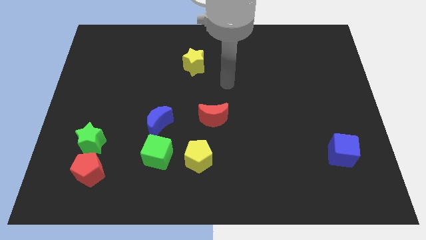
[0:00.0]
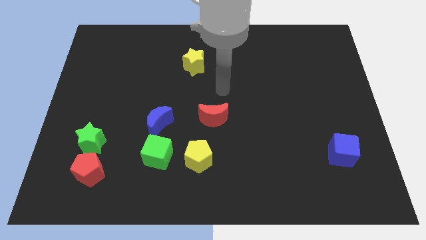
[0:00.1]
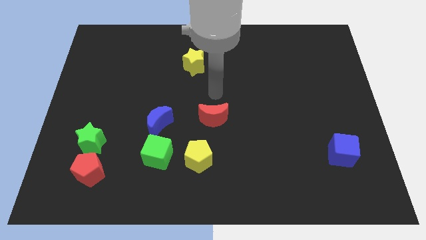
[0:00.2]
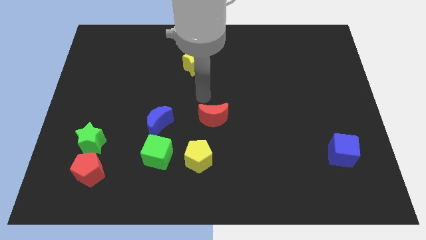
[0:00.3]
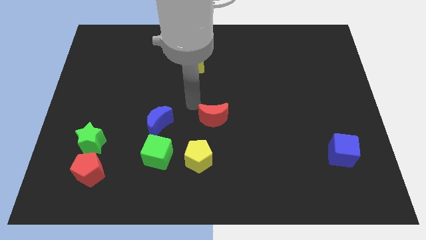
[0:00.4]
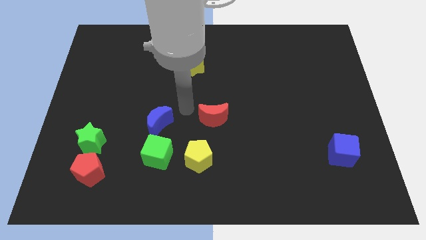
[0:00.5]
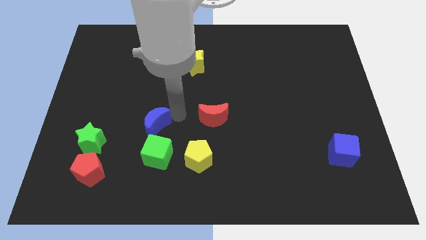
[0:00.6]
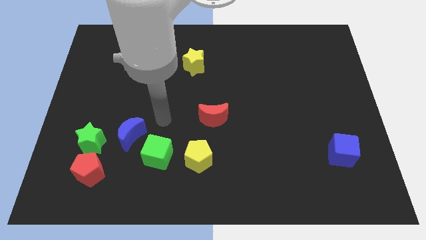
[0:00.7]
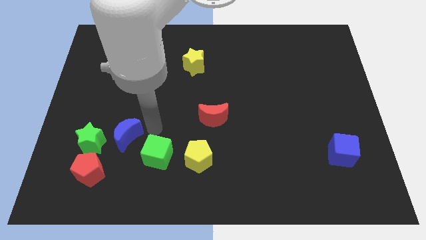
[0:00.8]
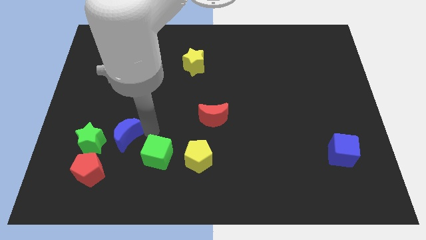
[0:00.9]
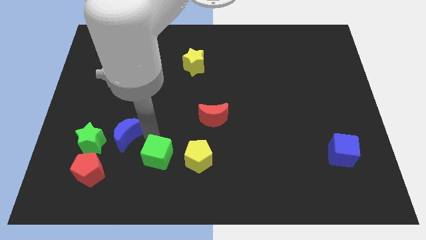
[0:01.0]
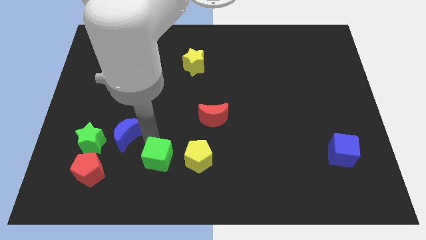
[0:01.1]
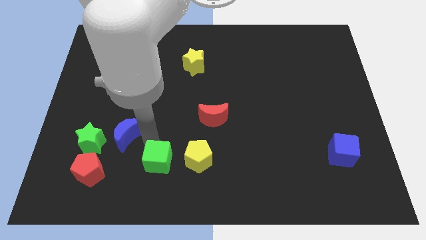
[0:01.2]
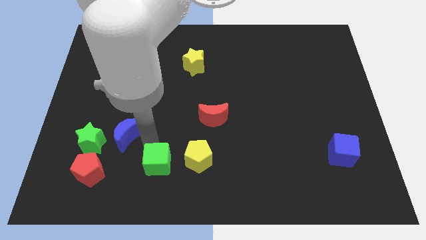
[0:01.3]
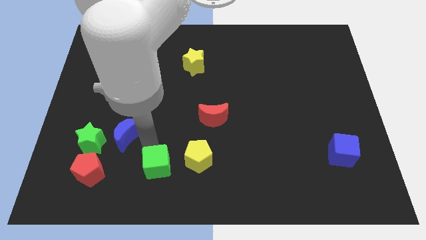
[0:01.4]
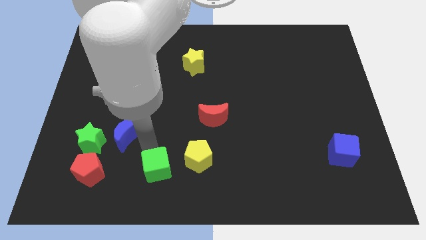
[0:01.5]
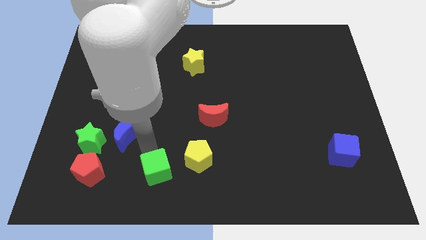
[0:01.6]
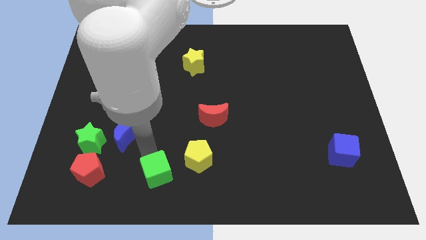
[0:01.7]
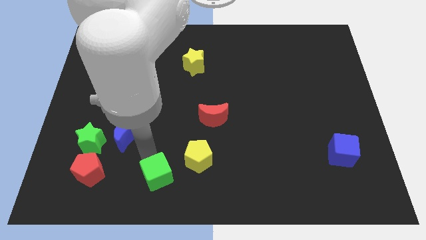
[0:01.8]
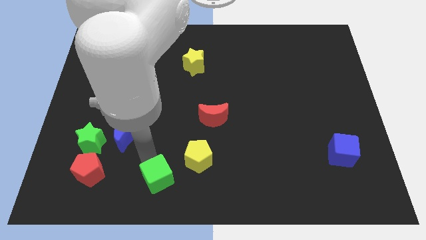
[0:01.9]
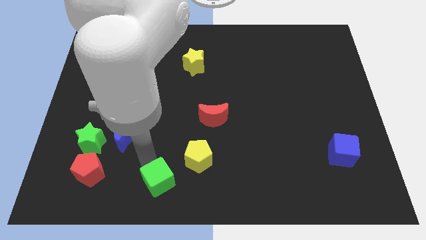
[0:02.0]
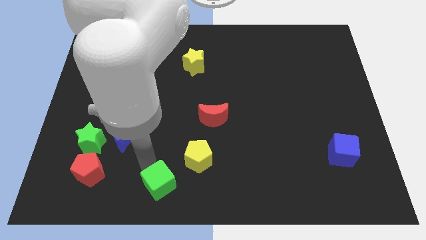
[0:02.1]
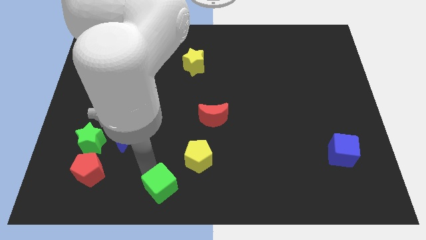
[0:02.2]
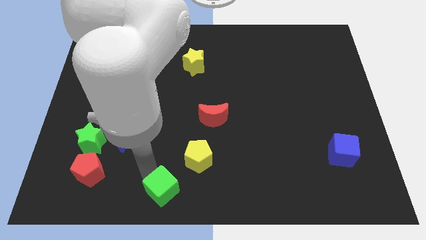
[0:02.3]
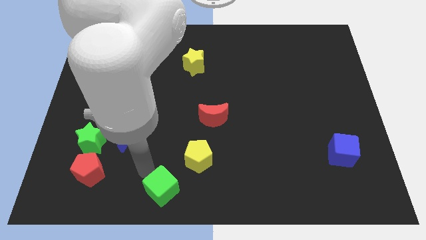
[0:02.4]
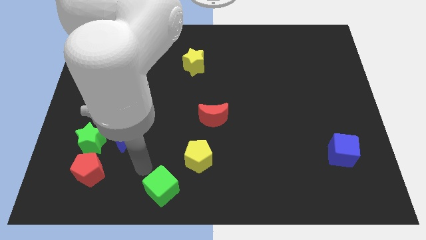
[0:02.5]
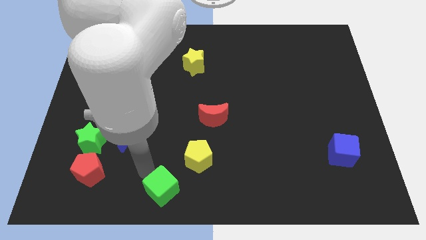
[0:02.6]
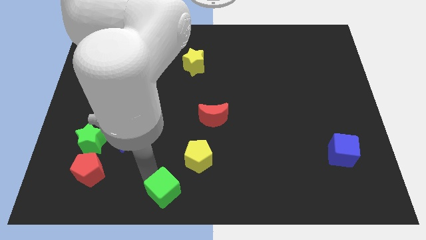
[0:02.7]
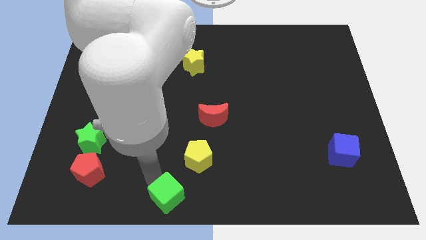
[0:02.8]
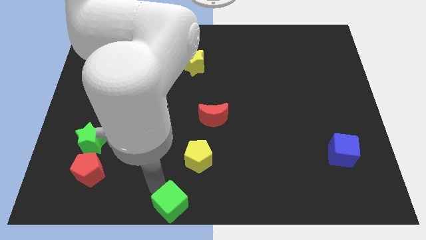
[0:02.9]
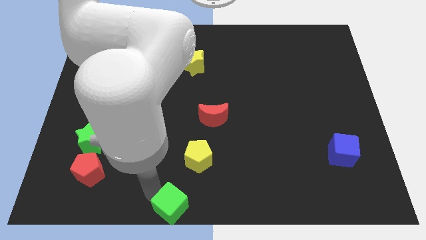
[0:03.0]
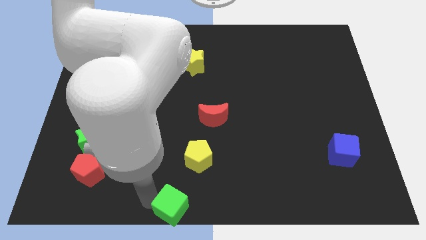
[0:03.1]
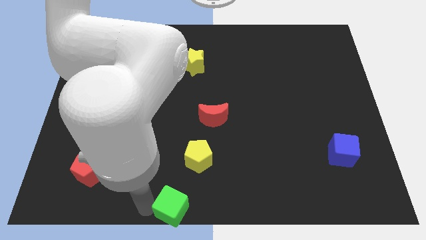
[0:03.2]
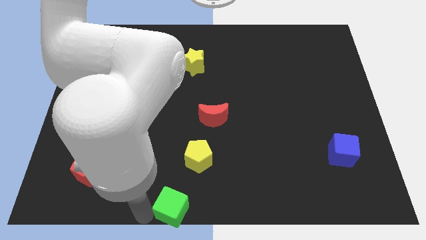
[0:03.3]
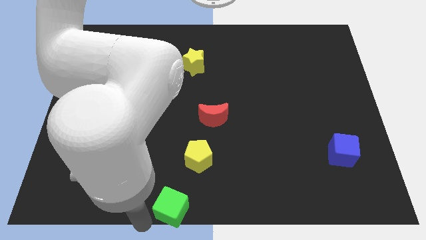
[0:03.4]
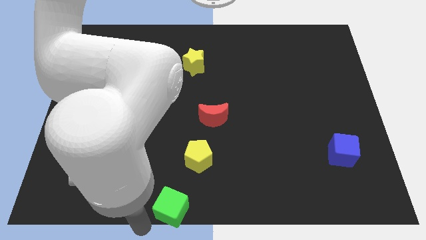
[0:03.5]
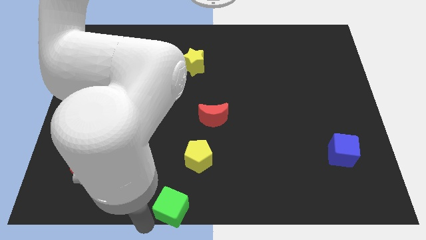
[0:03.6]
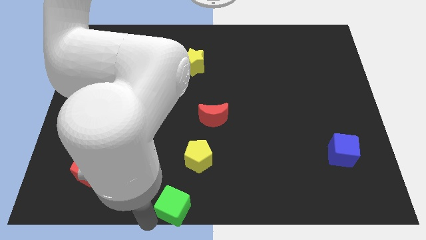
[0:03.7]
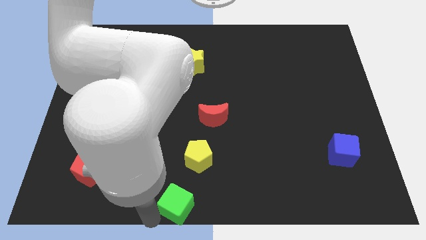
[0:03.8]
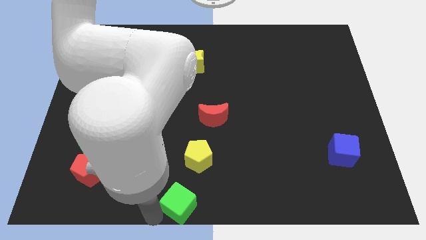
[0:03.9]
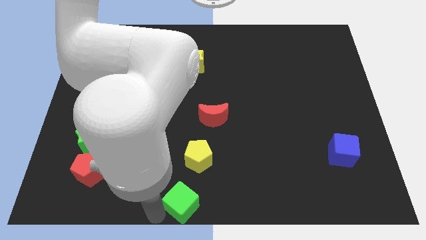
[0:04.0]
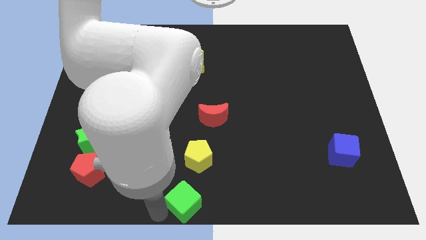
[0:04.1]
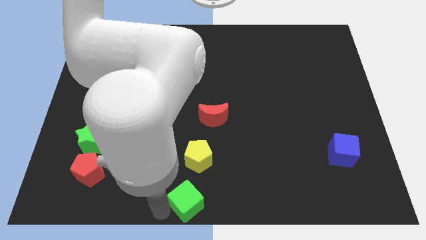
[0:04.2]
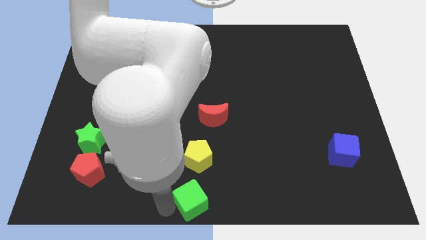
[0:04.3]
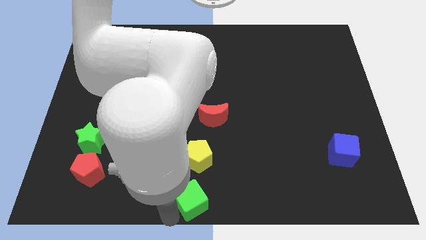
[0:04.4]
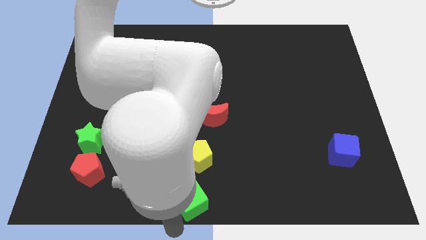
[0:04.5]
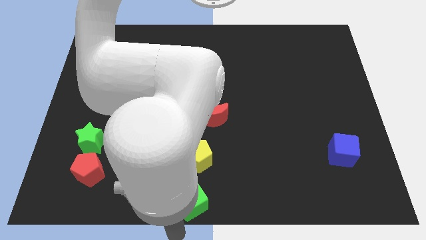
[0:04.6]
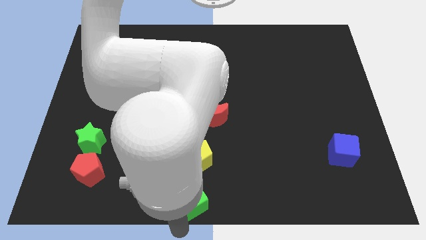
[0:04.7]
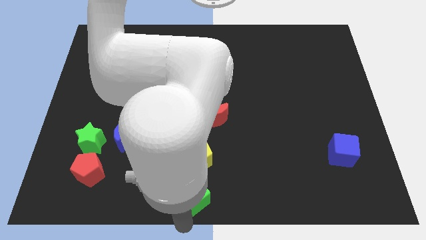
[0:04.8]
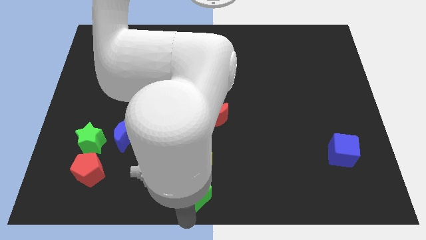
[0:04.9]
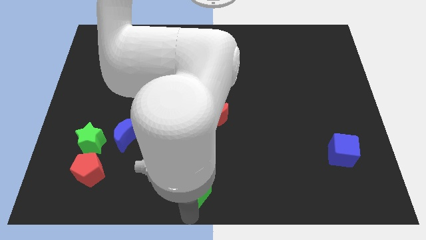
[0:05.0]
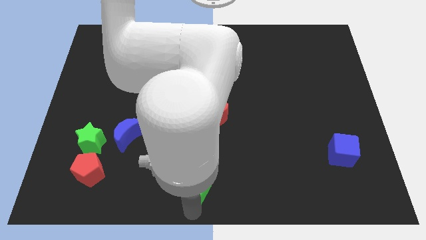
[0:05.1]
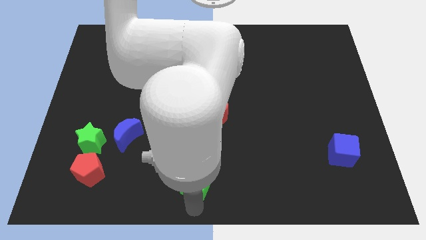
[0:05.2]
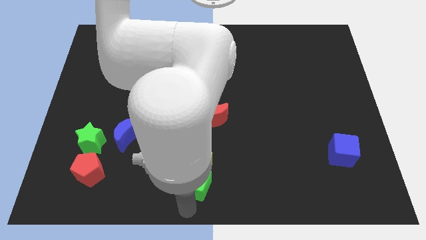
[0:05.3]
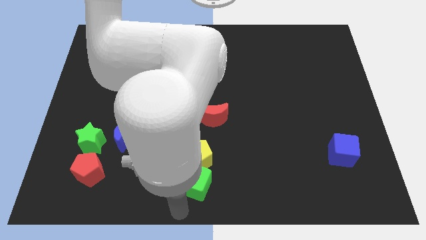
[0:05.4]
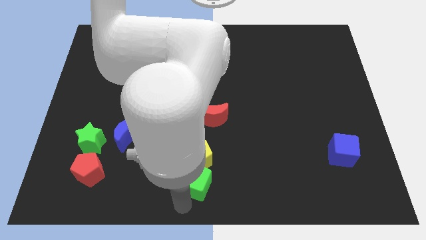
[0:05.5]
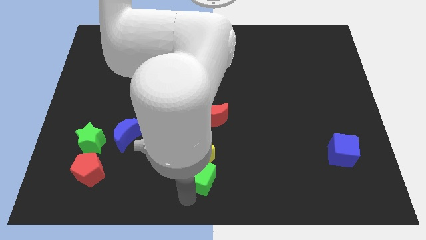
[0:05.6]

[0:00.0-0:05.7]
put the green cube to the bottom of the red moon
